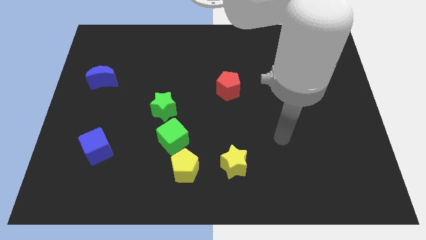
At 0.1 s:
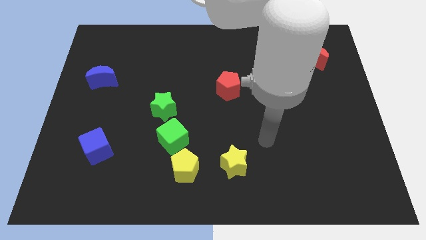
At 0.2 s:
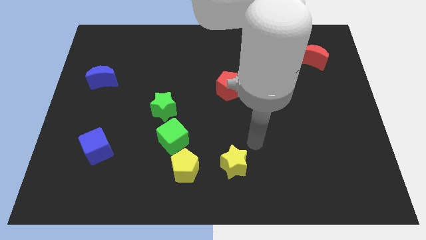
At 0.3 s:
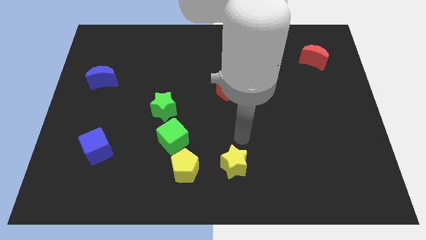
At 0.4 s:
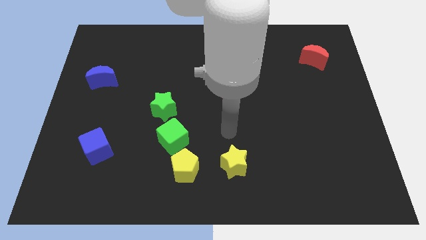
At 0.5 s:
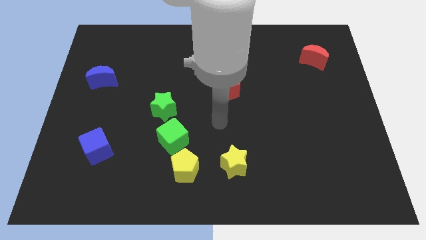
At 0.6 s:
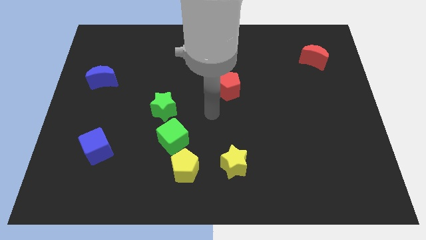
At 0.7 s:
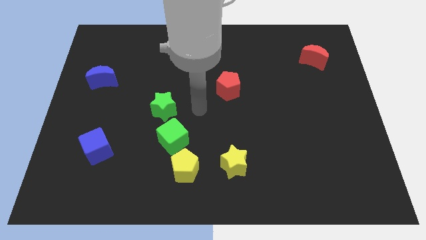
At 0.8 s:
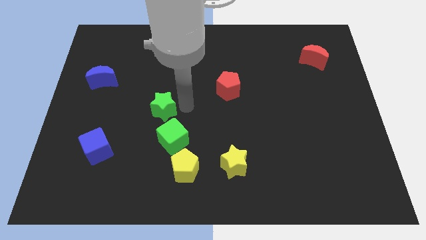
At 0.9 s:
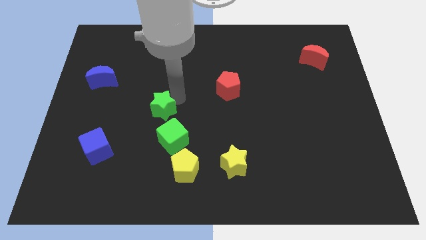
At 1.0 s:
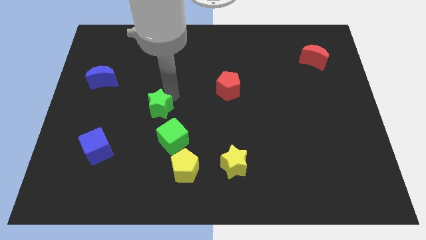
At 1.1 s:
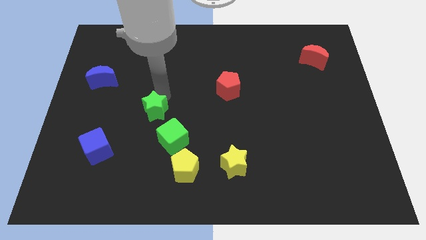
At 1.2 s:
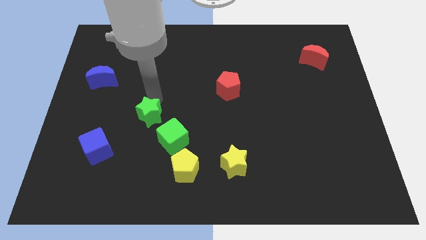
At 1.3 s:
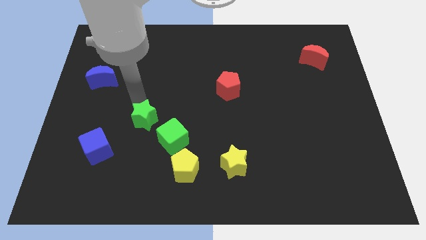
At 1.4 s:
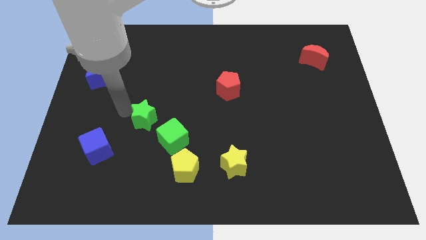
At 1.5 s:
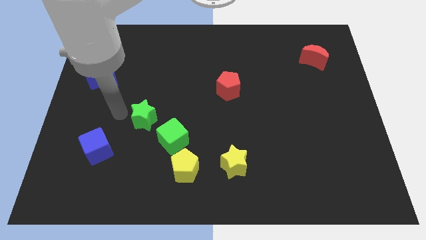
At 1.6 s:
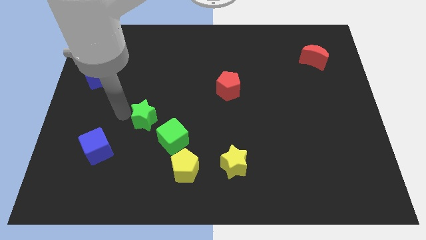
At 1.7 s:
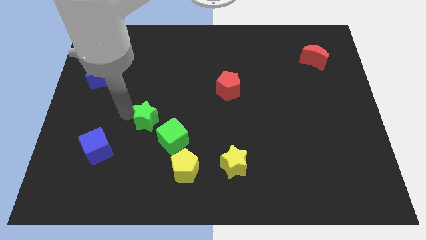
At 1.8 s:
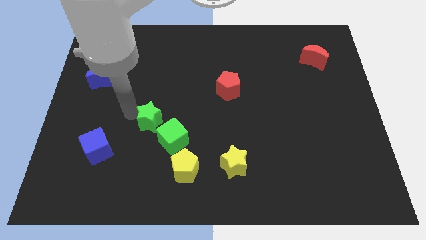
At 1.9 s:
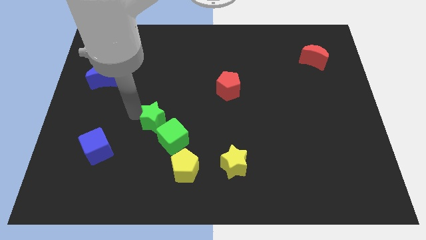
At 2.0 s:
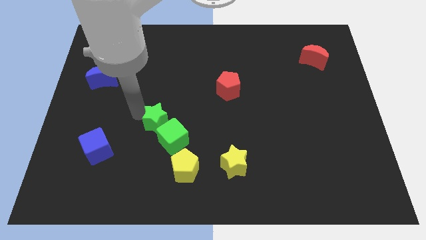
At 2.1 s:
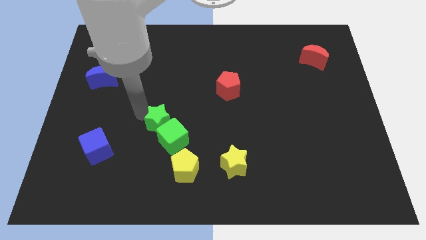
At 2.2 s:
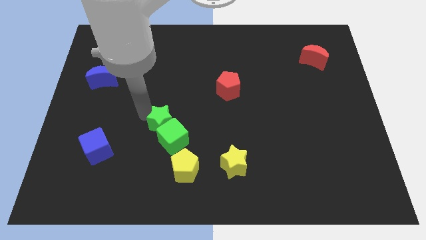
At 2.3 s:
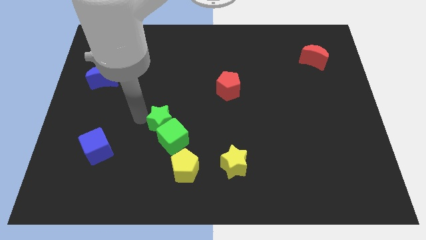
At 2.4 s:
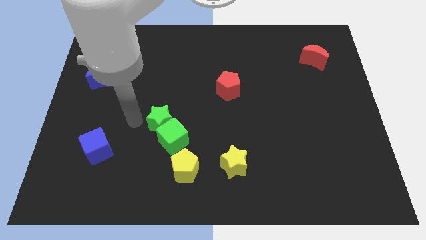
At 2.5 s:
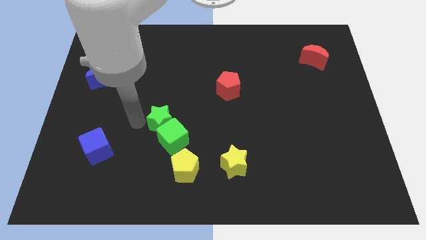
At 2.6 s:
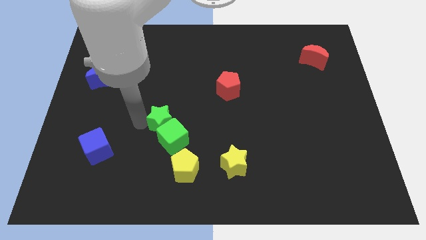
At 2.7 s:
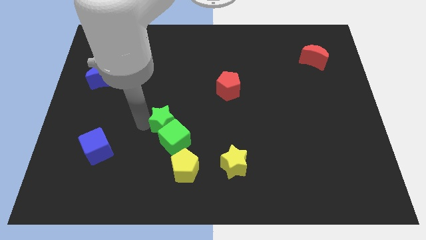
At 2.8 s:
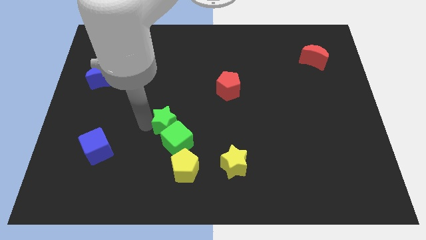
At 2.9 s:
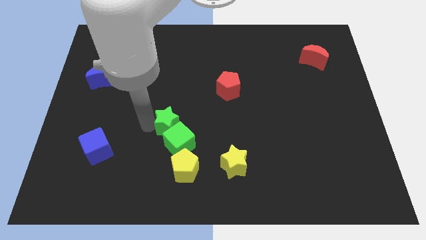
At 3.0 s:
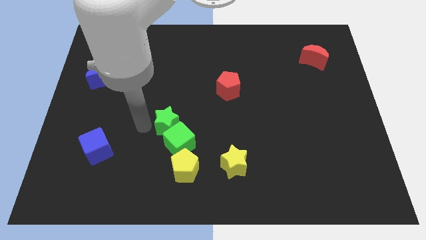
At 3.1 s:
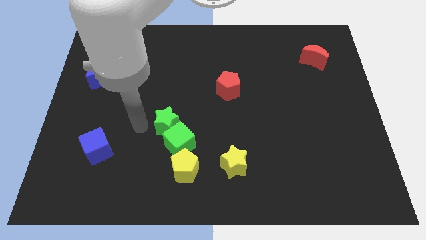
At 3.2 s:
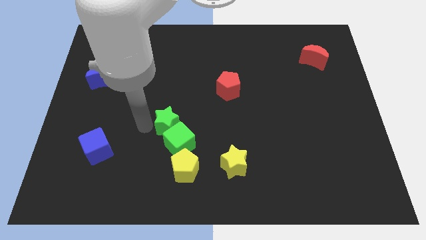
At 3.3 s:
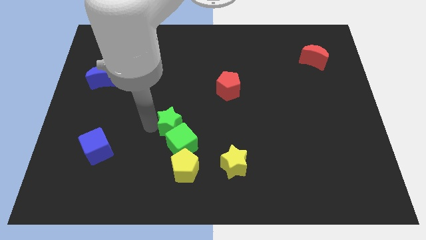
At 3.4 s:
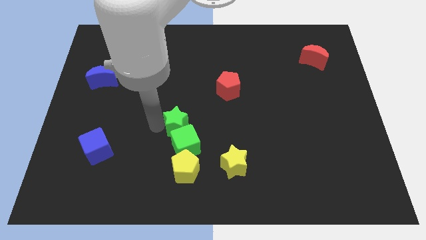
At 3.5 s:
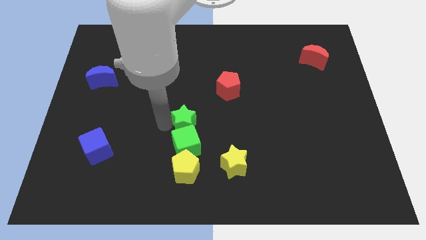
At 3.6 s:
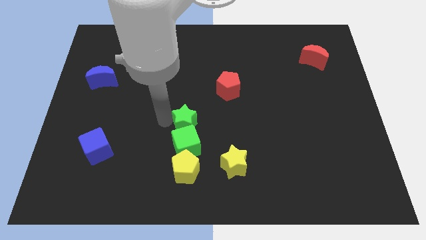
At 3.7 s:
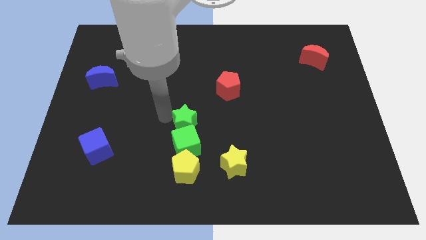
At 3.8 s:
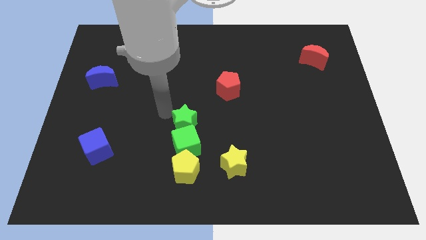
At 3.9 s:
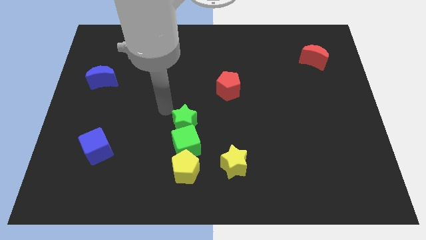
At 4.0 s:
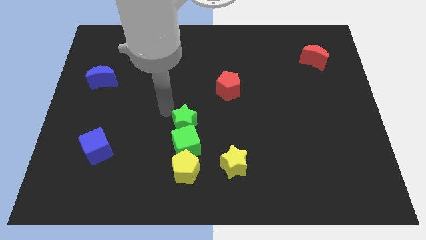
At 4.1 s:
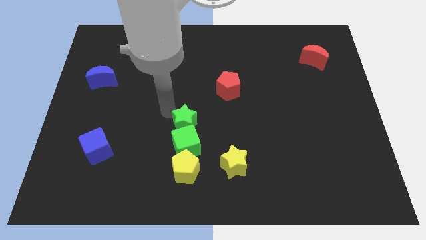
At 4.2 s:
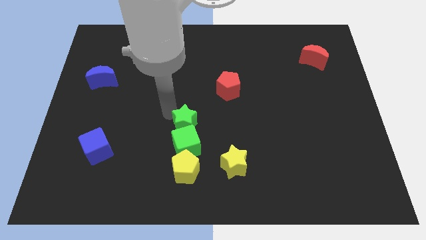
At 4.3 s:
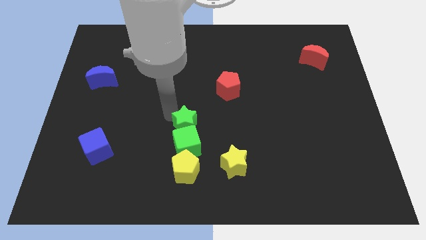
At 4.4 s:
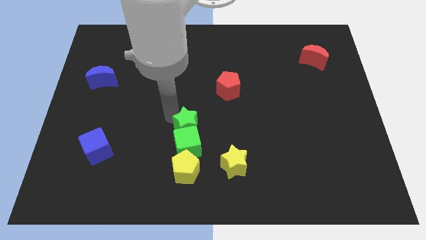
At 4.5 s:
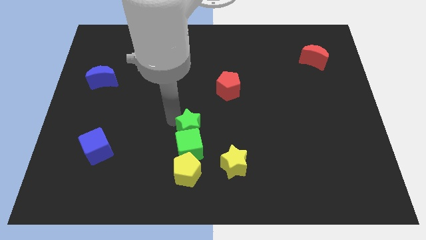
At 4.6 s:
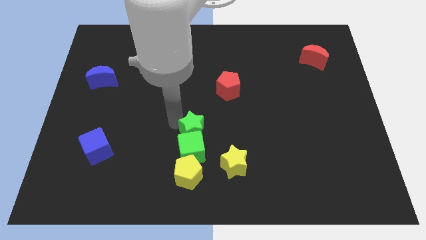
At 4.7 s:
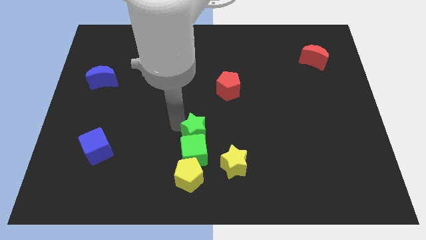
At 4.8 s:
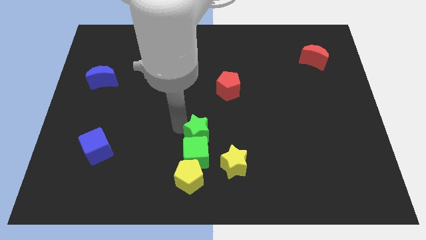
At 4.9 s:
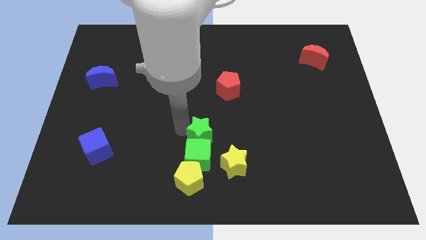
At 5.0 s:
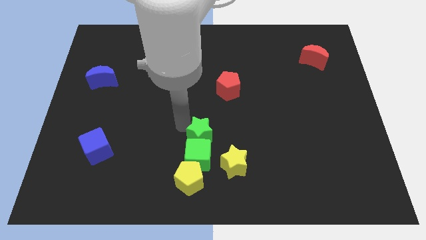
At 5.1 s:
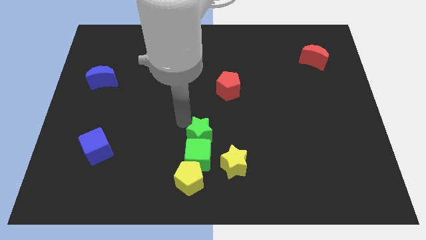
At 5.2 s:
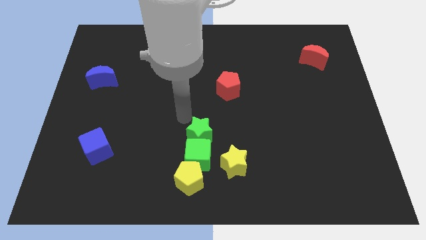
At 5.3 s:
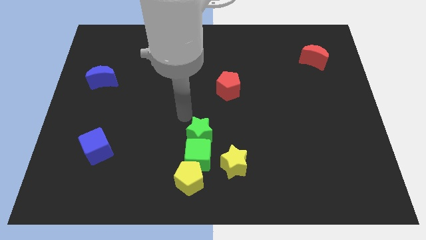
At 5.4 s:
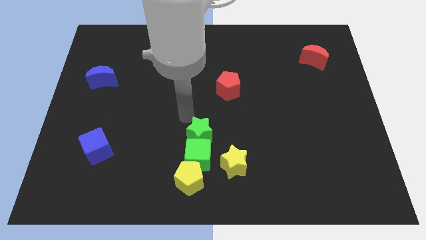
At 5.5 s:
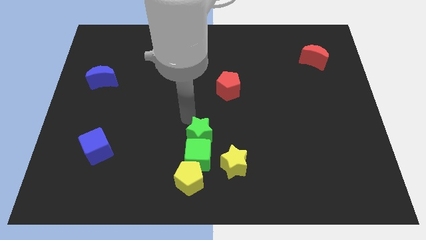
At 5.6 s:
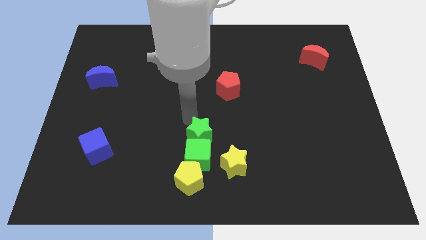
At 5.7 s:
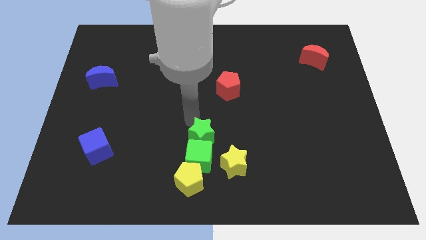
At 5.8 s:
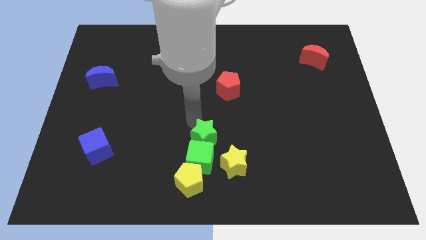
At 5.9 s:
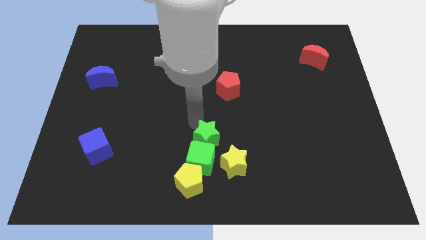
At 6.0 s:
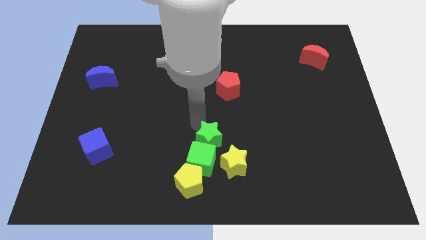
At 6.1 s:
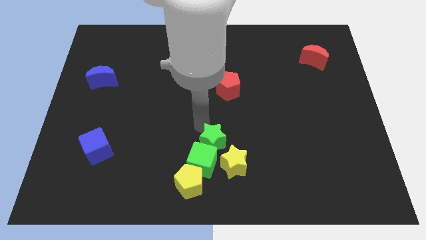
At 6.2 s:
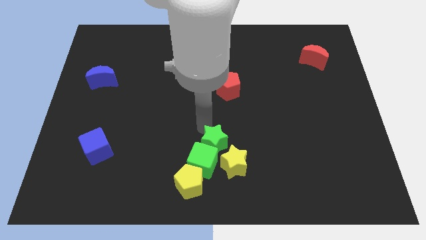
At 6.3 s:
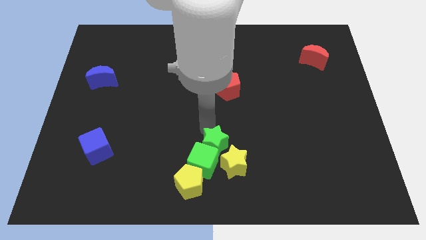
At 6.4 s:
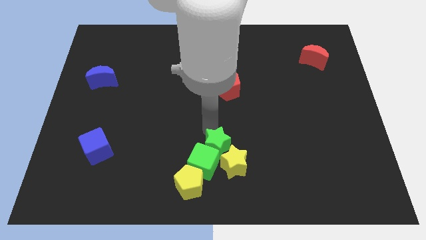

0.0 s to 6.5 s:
put the green star next to the yellow star

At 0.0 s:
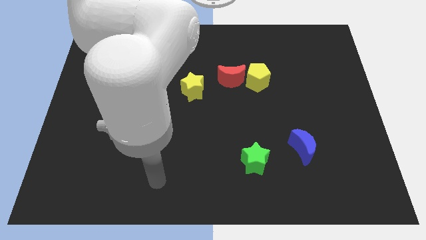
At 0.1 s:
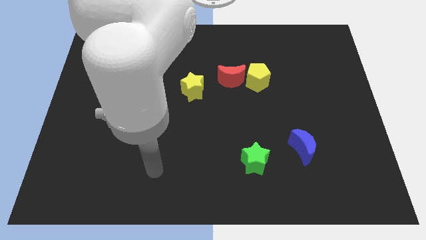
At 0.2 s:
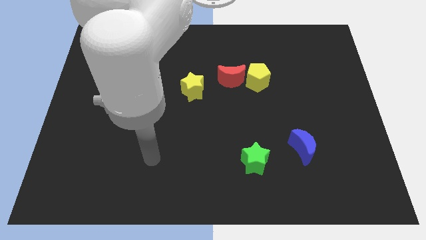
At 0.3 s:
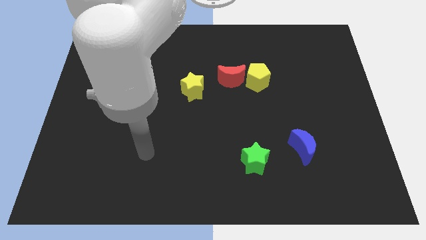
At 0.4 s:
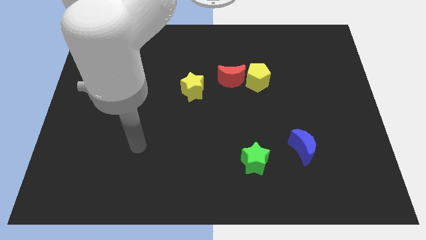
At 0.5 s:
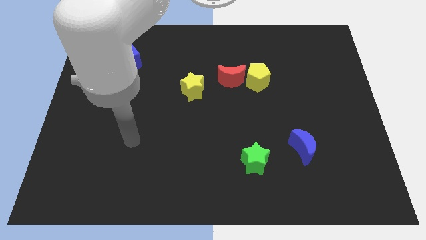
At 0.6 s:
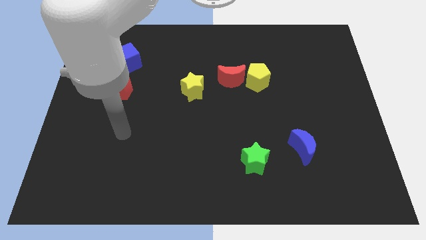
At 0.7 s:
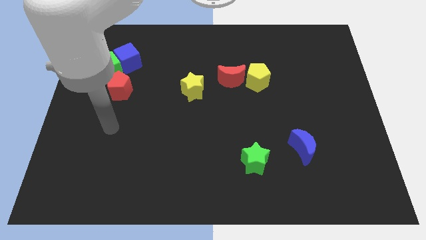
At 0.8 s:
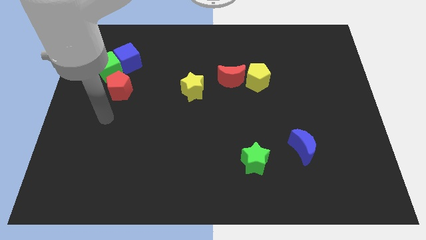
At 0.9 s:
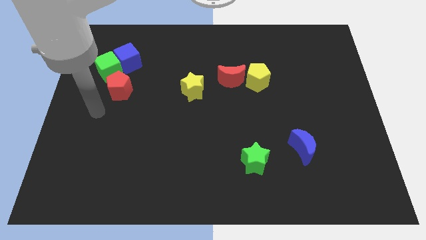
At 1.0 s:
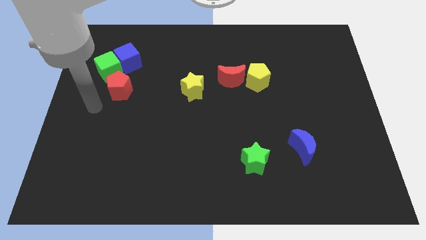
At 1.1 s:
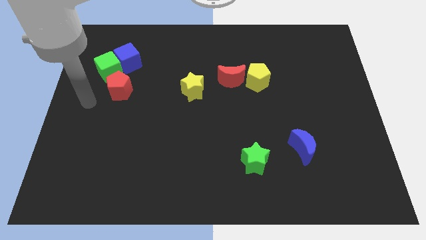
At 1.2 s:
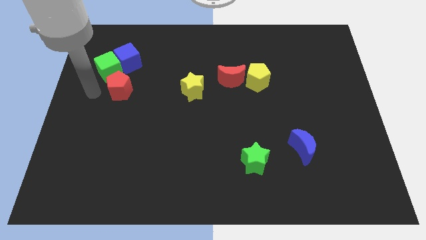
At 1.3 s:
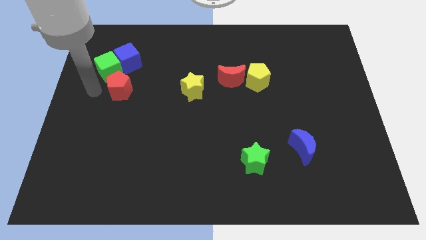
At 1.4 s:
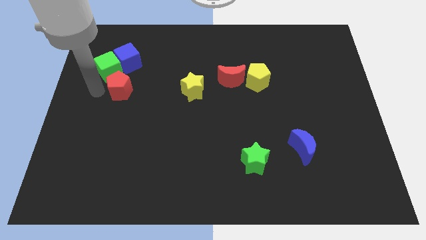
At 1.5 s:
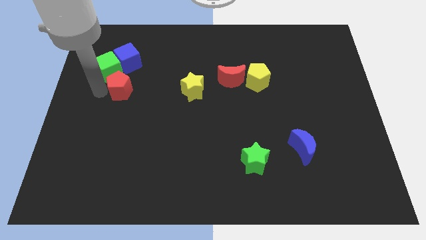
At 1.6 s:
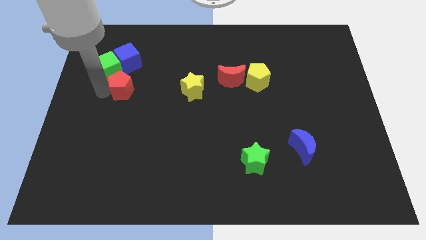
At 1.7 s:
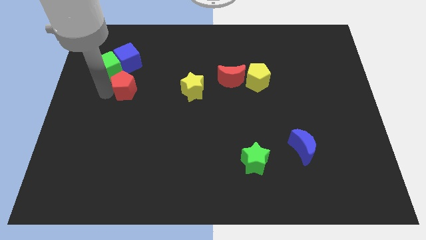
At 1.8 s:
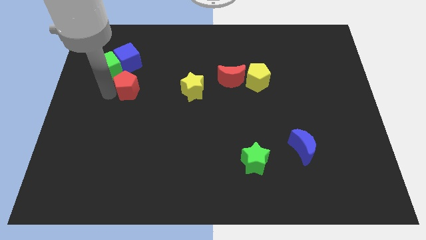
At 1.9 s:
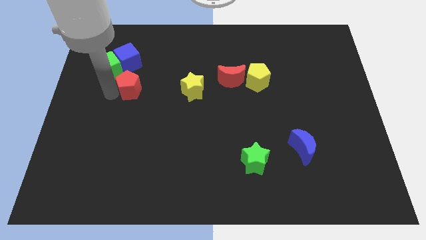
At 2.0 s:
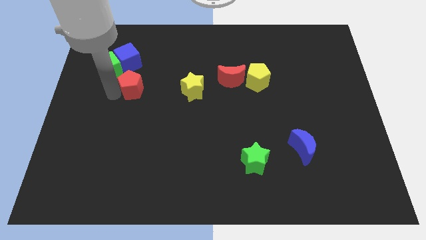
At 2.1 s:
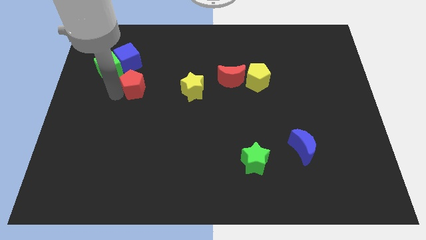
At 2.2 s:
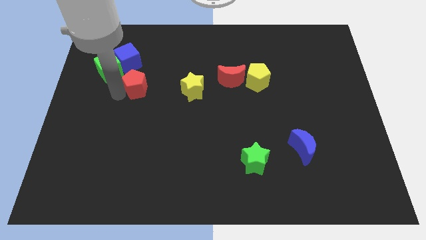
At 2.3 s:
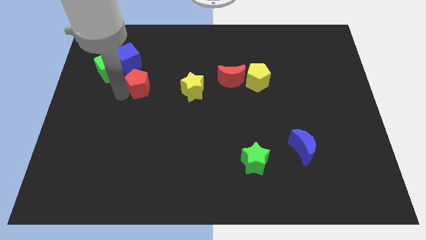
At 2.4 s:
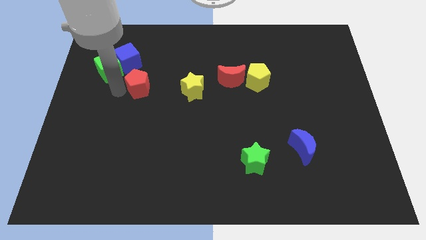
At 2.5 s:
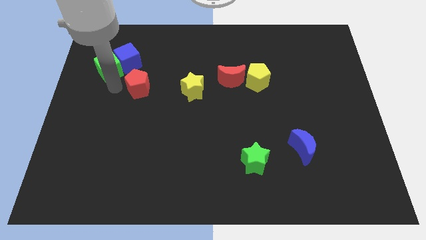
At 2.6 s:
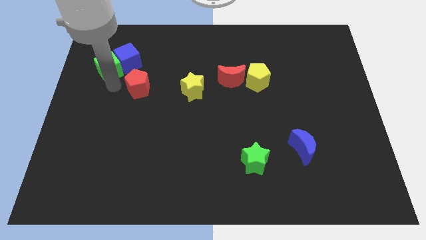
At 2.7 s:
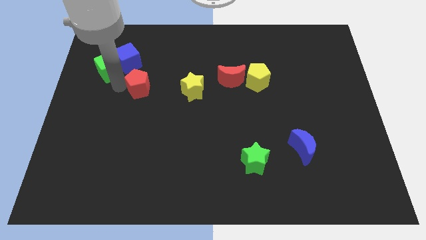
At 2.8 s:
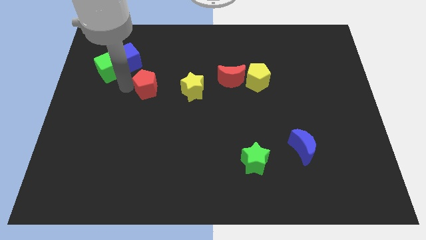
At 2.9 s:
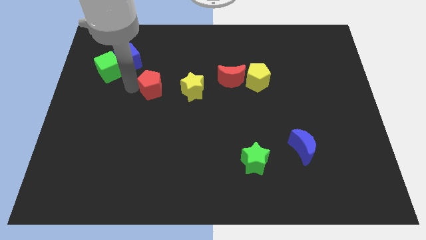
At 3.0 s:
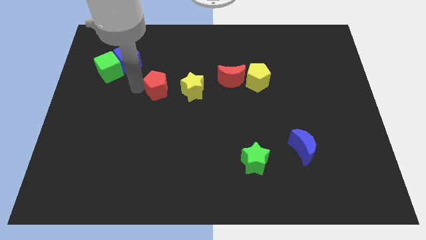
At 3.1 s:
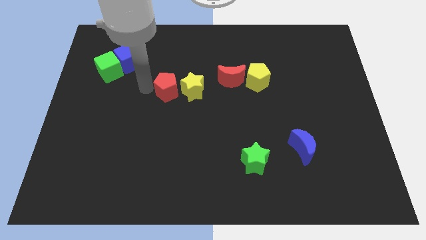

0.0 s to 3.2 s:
slide the red pentagon next to the yellow star
